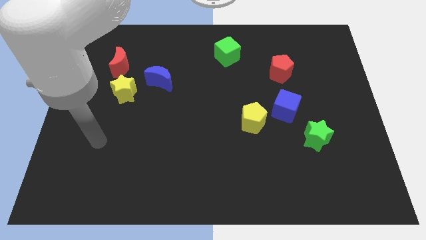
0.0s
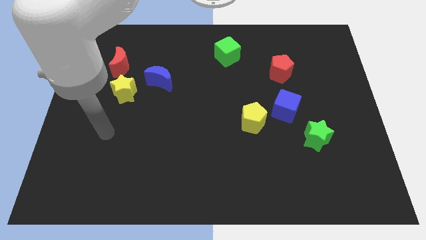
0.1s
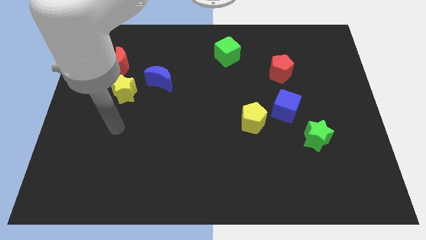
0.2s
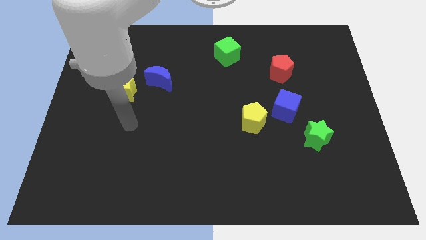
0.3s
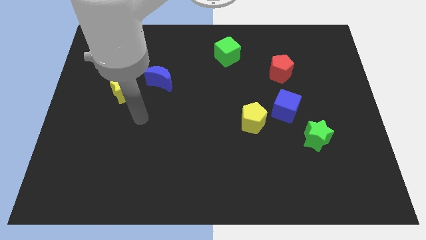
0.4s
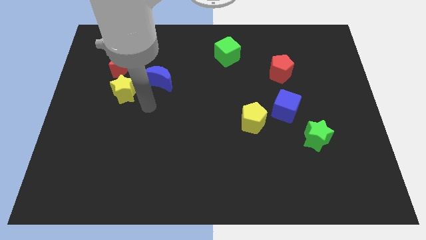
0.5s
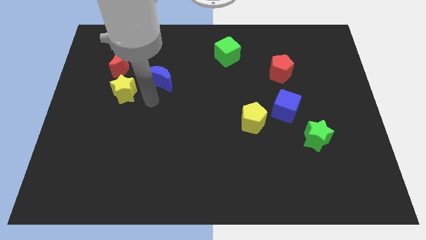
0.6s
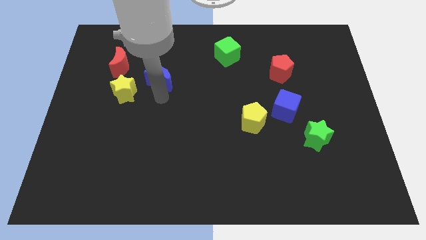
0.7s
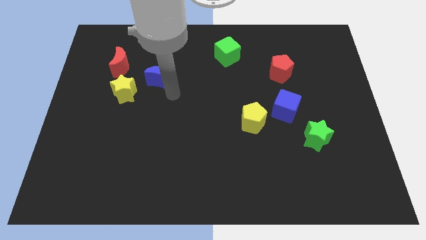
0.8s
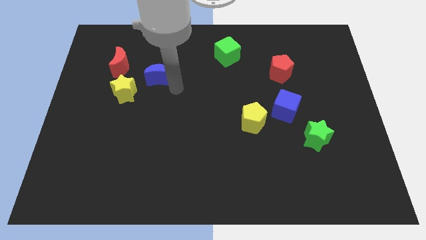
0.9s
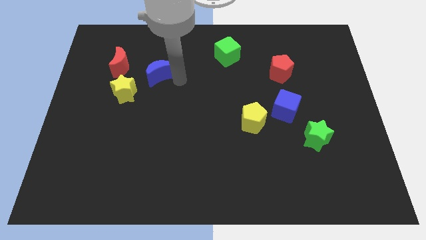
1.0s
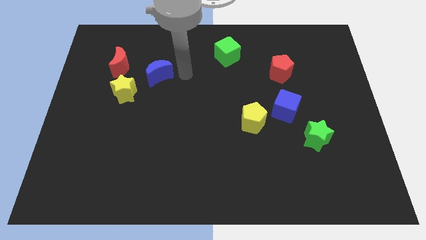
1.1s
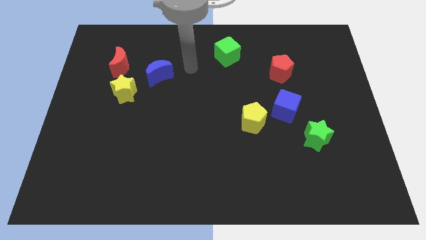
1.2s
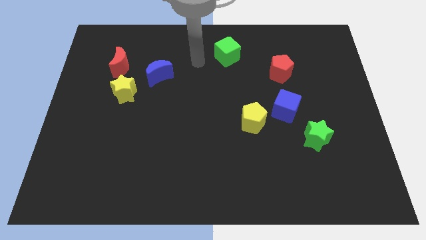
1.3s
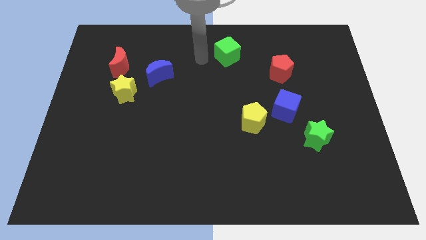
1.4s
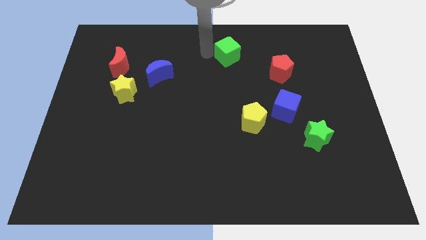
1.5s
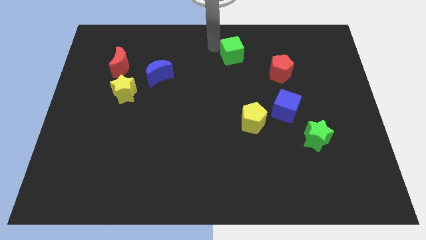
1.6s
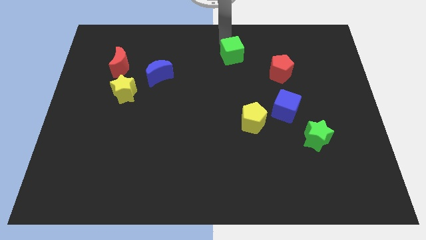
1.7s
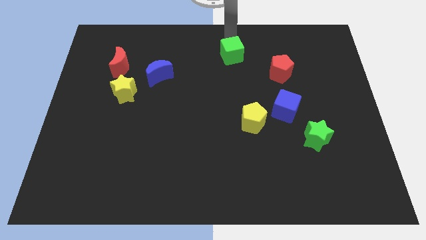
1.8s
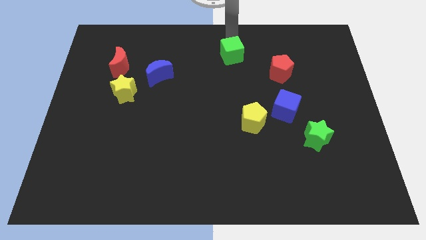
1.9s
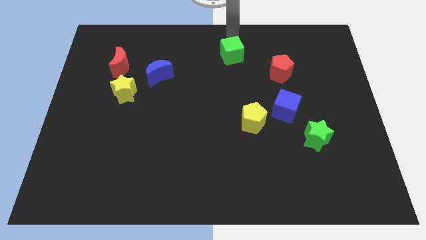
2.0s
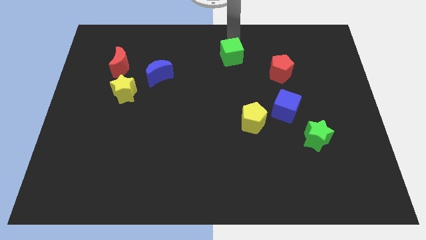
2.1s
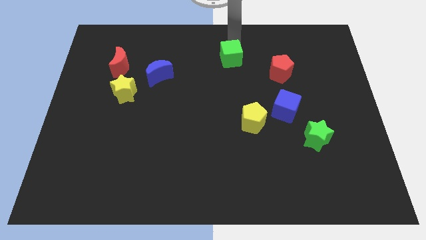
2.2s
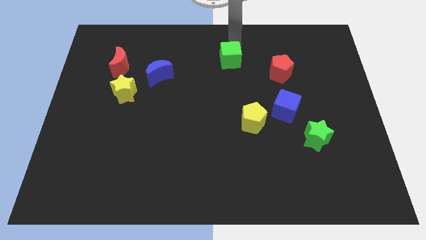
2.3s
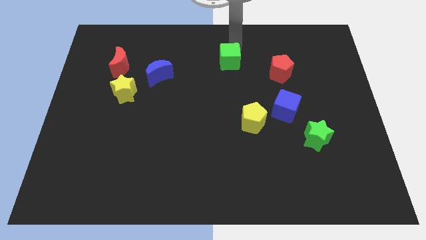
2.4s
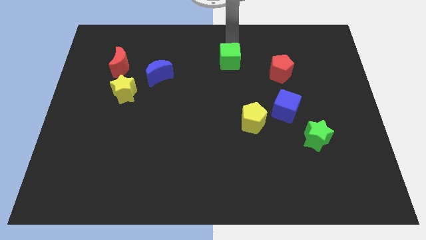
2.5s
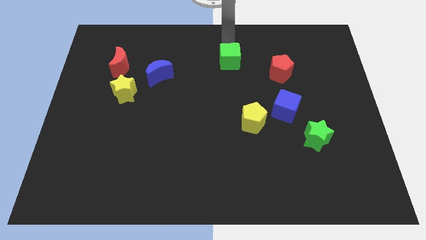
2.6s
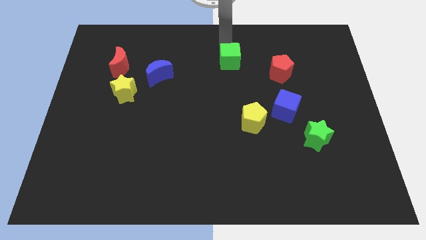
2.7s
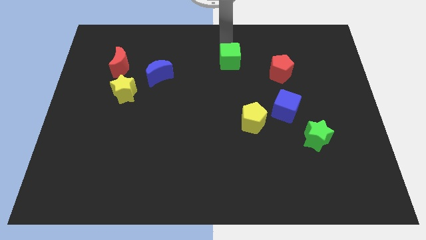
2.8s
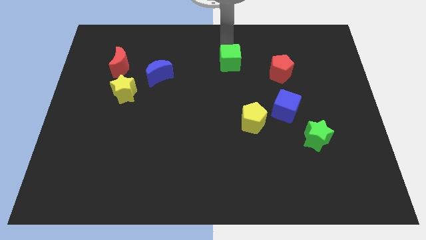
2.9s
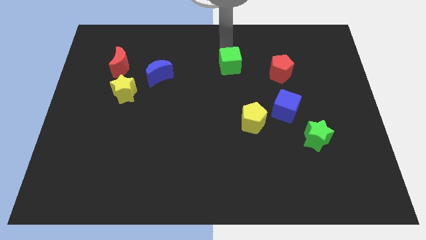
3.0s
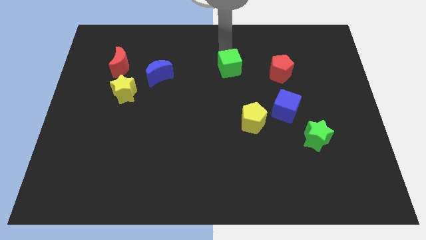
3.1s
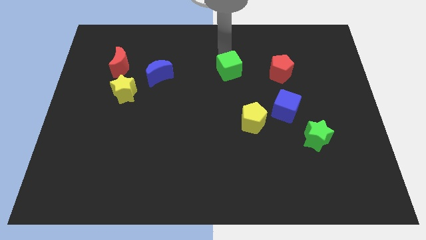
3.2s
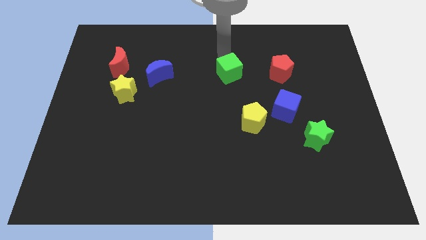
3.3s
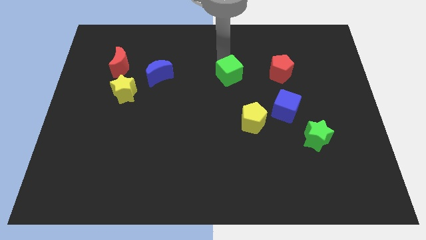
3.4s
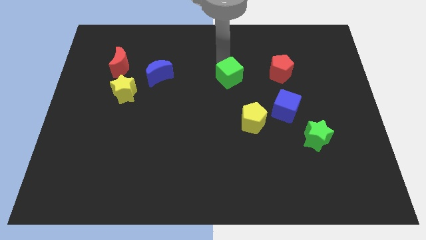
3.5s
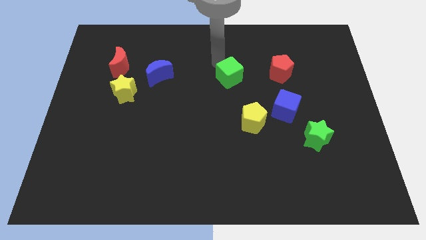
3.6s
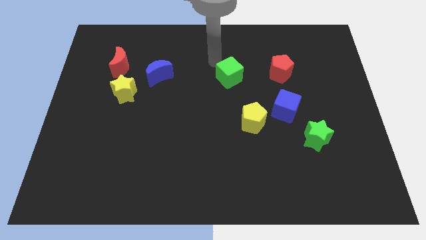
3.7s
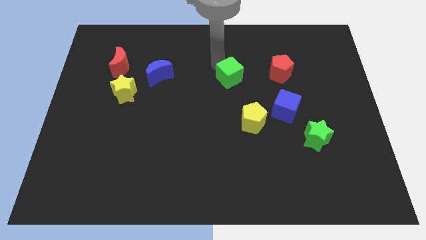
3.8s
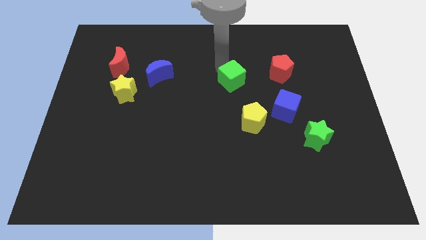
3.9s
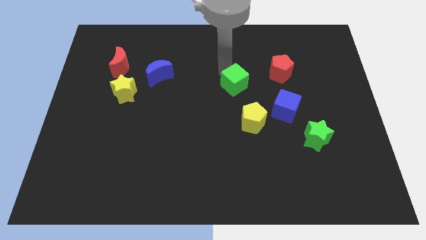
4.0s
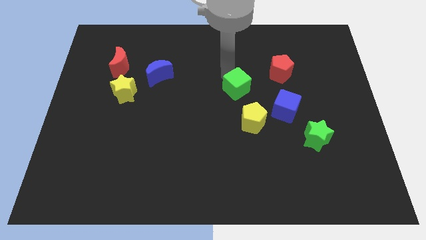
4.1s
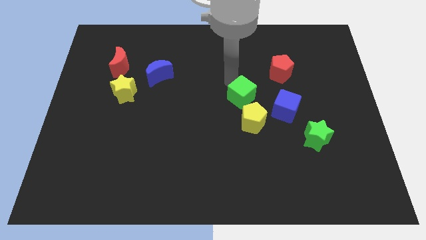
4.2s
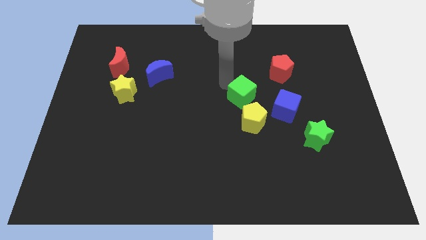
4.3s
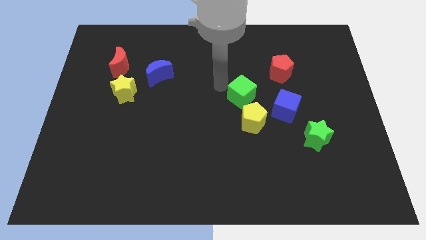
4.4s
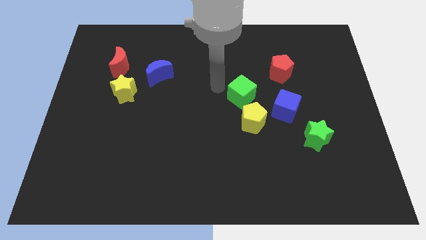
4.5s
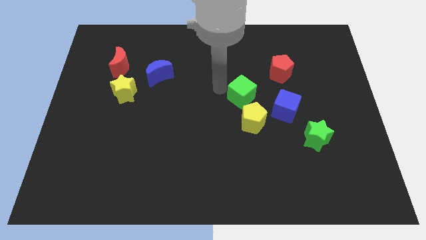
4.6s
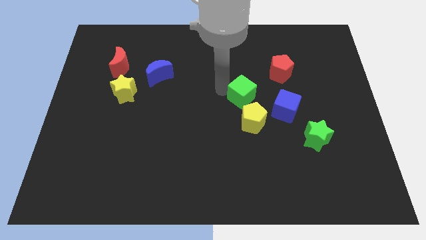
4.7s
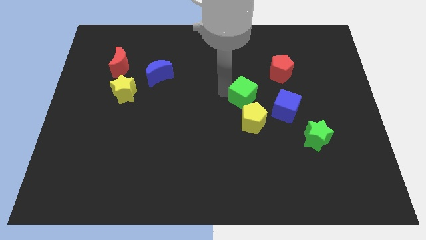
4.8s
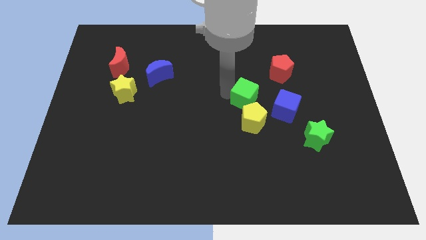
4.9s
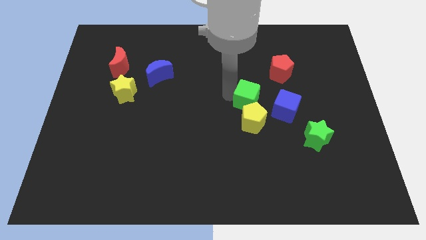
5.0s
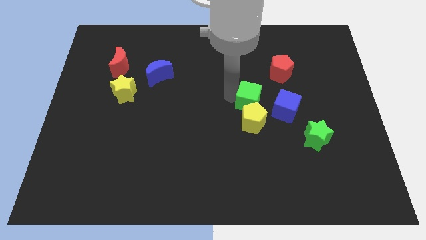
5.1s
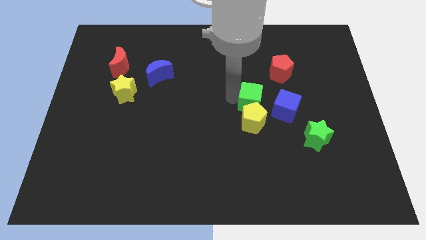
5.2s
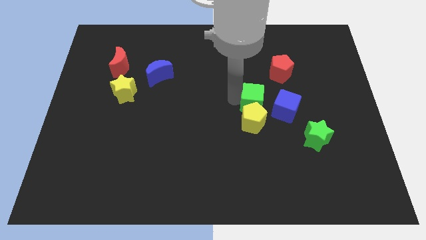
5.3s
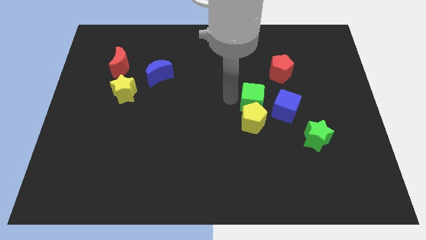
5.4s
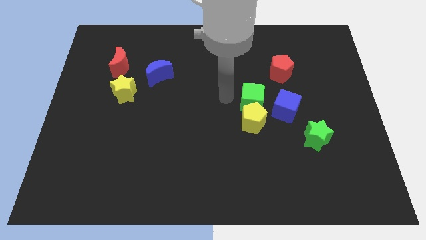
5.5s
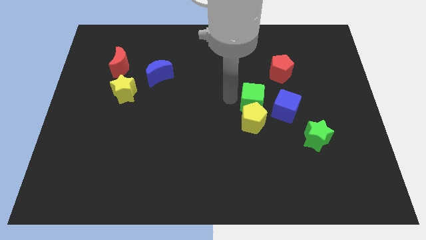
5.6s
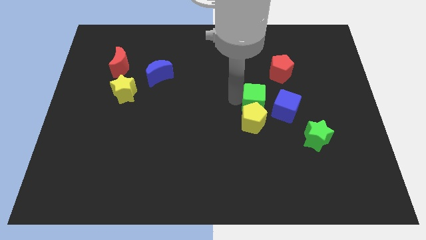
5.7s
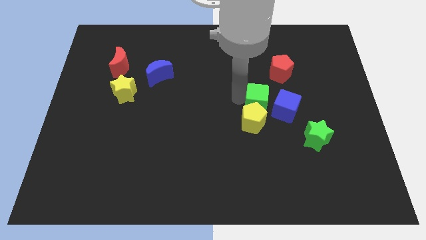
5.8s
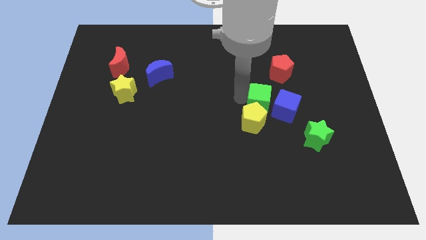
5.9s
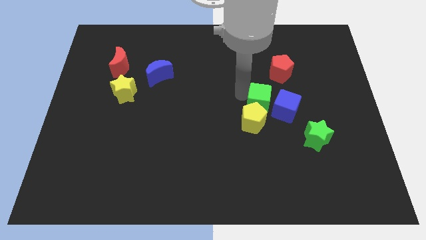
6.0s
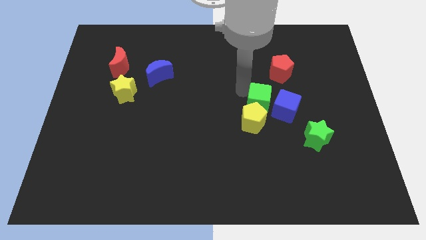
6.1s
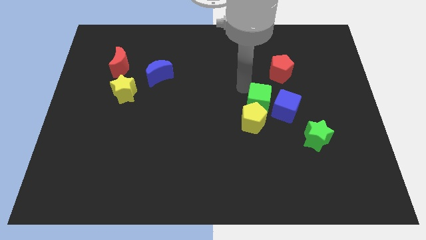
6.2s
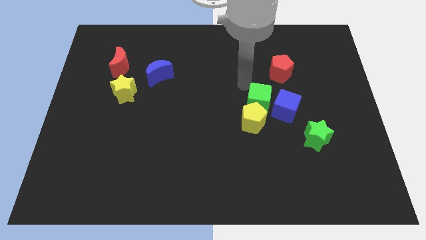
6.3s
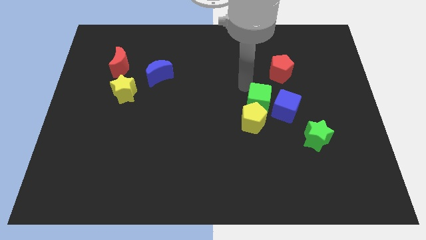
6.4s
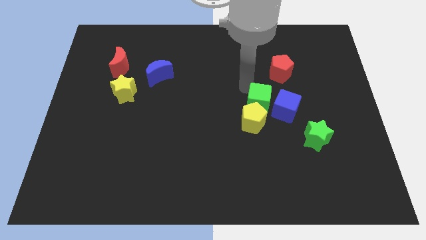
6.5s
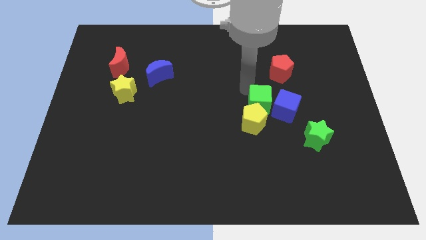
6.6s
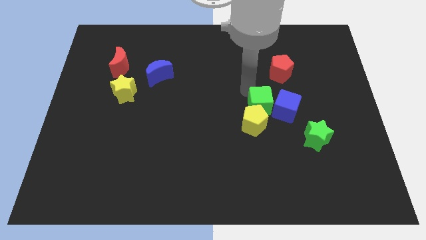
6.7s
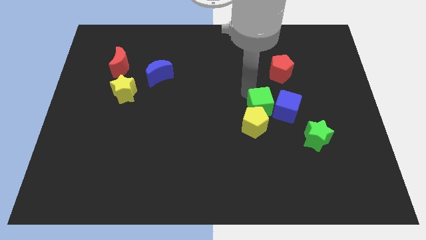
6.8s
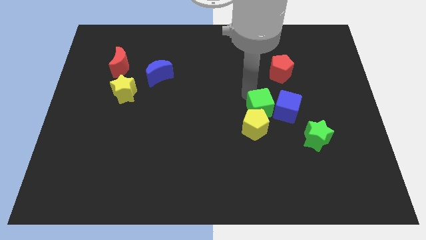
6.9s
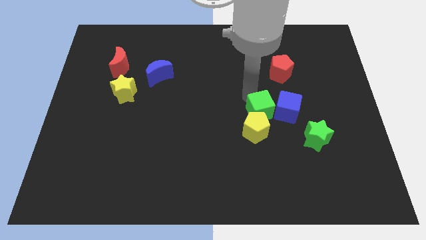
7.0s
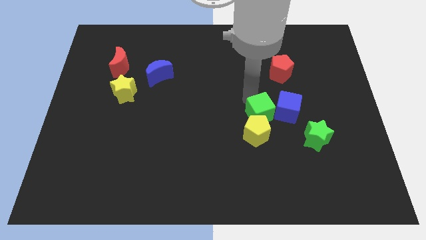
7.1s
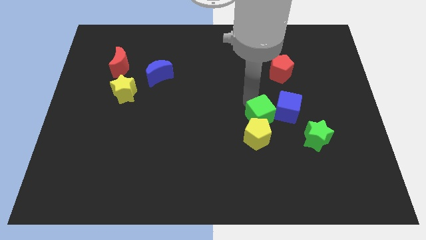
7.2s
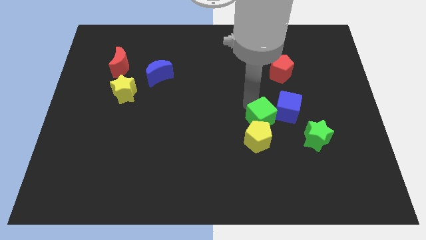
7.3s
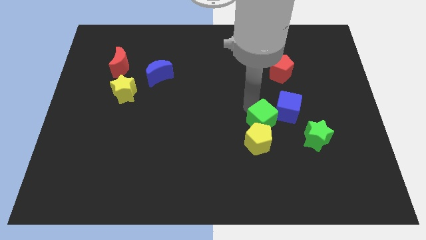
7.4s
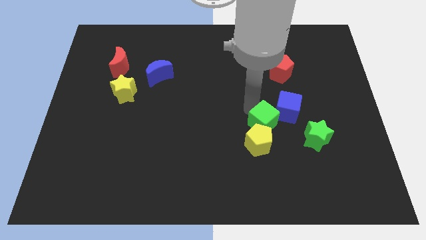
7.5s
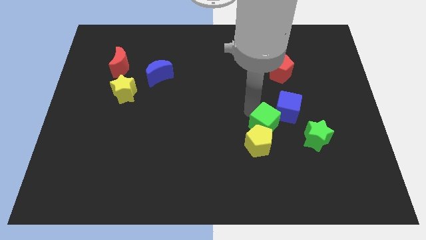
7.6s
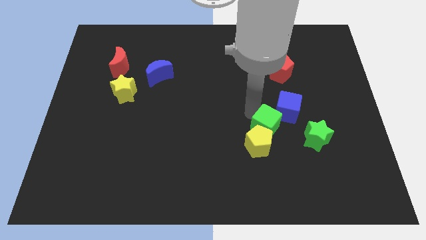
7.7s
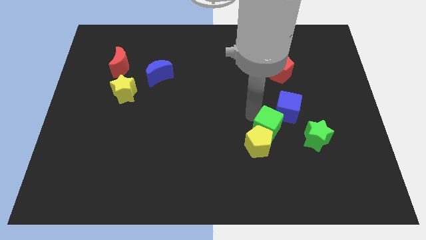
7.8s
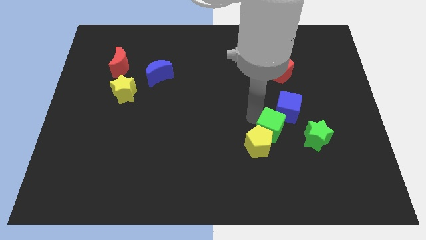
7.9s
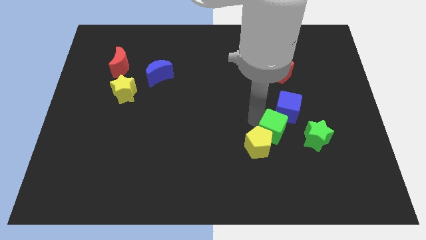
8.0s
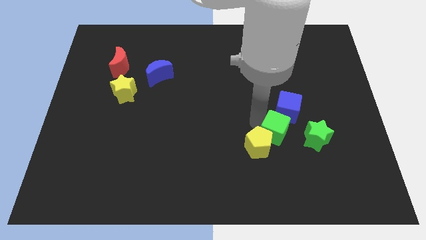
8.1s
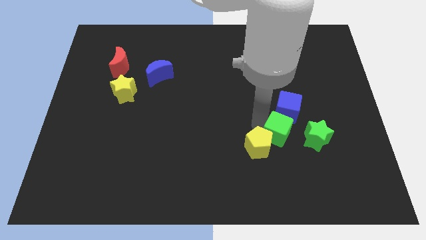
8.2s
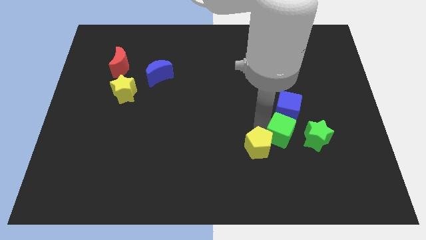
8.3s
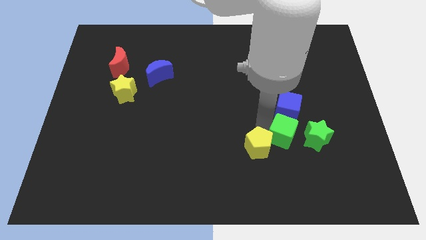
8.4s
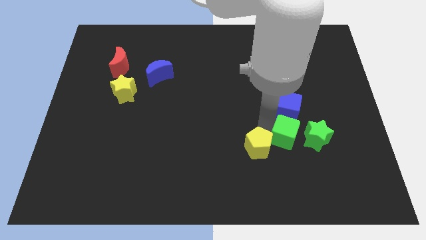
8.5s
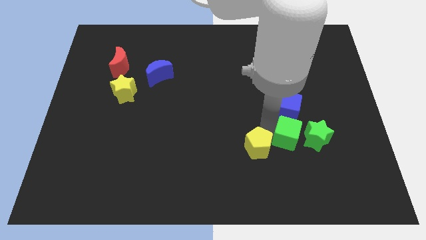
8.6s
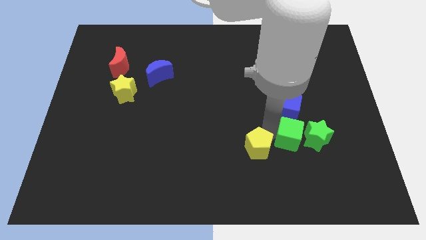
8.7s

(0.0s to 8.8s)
move the green cube close to the green star
